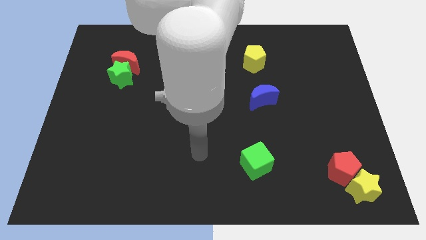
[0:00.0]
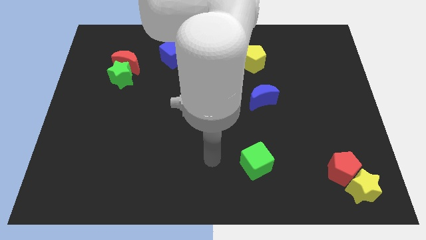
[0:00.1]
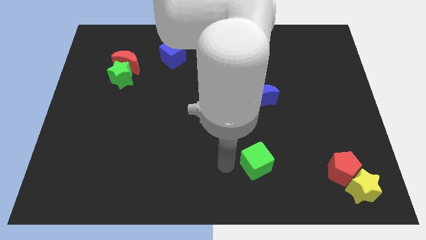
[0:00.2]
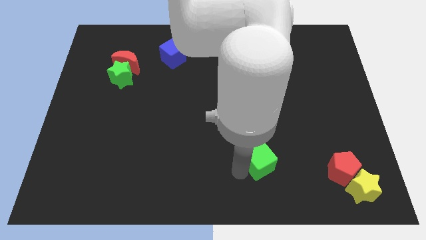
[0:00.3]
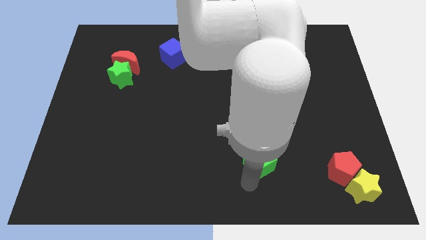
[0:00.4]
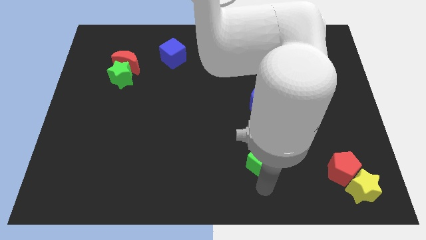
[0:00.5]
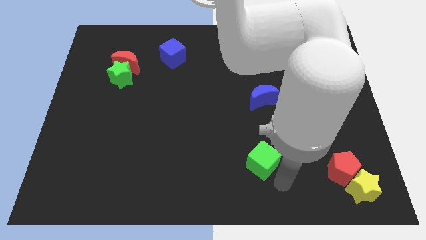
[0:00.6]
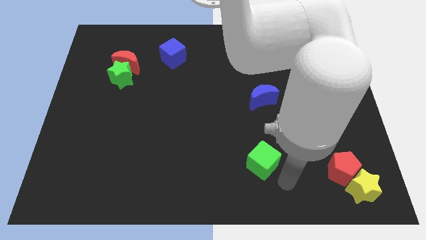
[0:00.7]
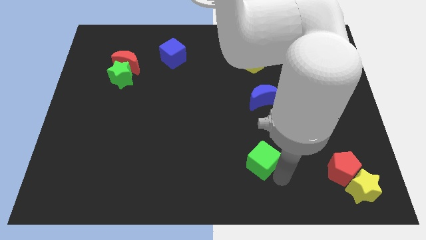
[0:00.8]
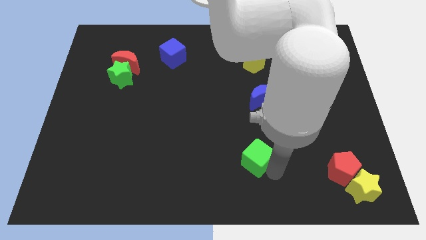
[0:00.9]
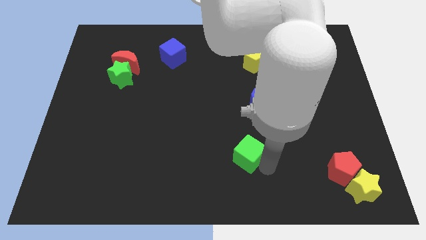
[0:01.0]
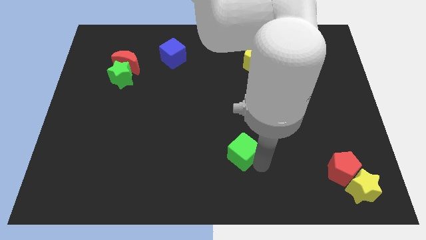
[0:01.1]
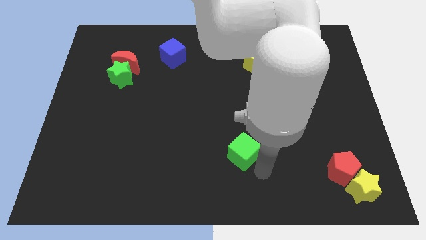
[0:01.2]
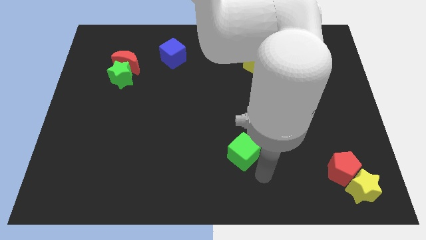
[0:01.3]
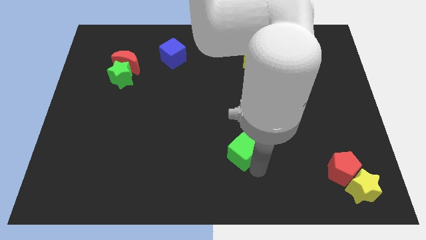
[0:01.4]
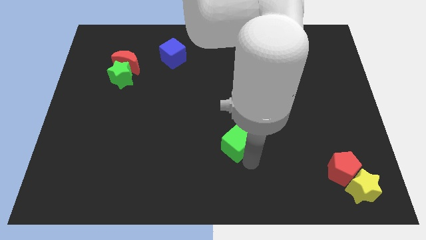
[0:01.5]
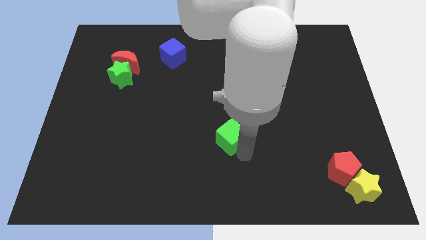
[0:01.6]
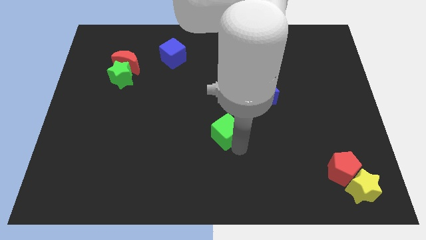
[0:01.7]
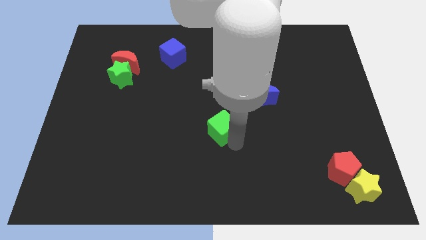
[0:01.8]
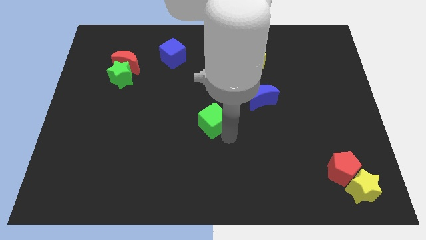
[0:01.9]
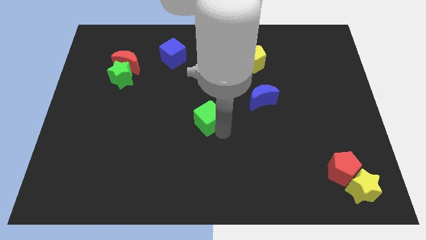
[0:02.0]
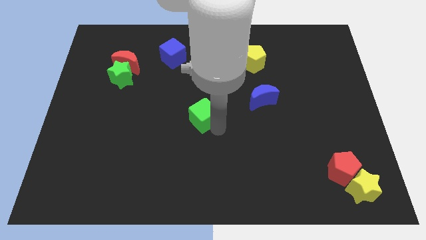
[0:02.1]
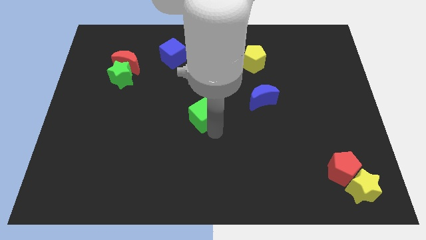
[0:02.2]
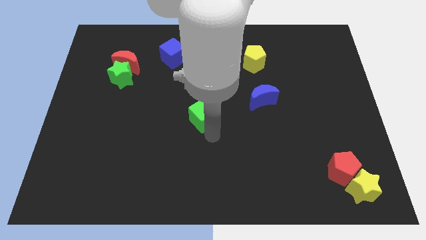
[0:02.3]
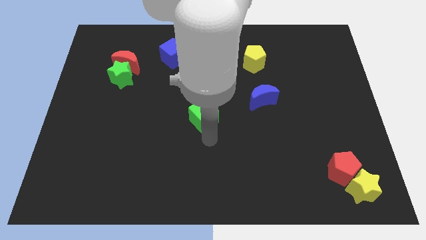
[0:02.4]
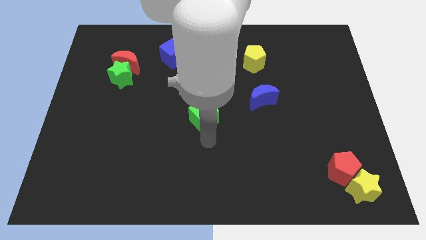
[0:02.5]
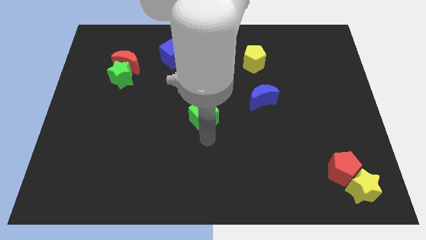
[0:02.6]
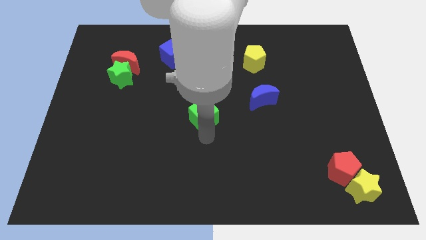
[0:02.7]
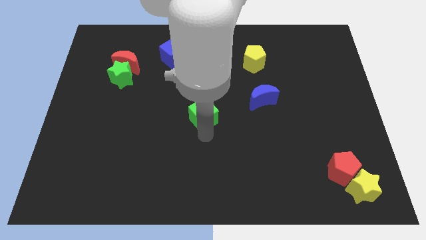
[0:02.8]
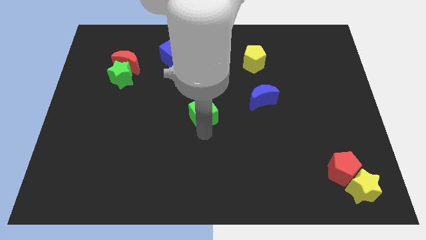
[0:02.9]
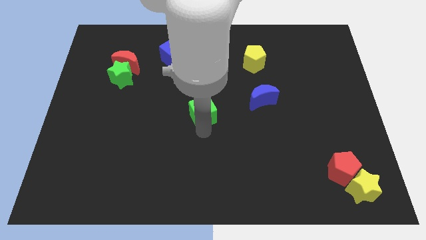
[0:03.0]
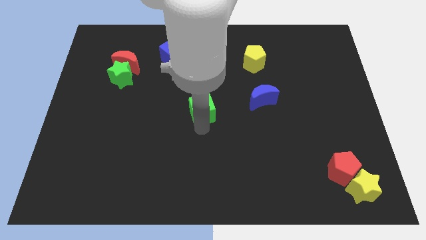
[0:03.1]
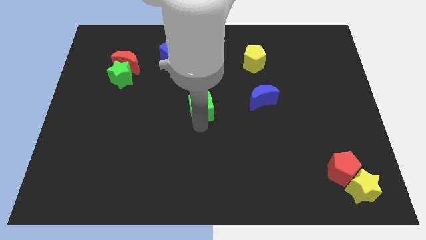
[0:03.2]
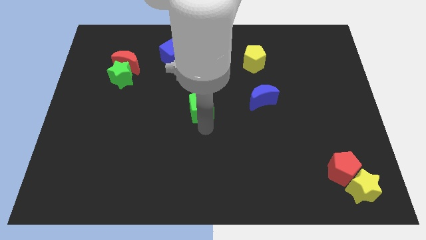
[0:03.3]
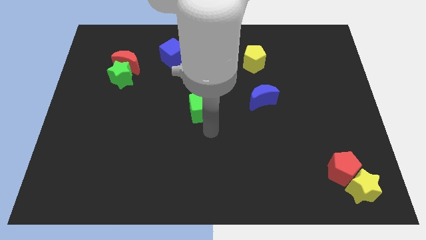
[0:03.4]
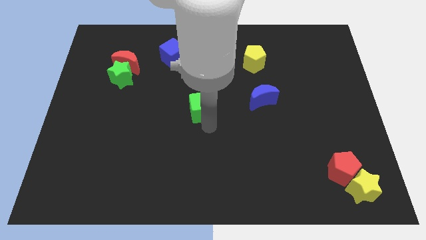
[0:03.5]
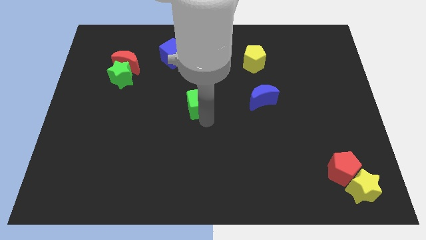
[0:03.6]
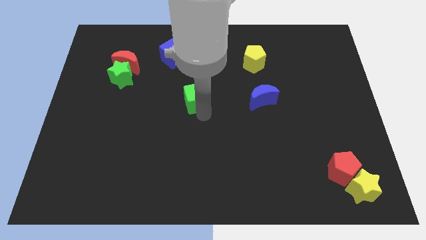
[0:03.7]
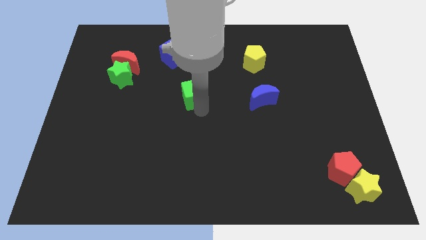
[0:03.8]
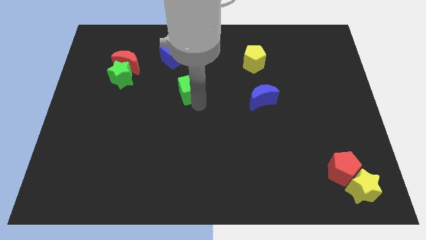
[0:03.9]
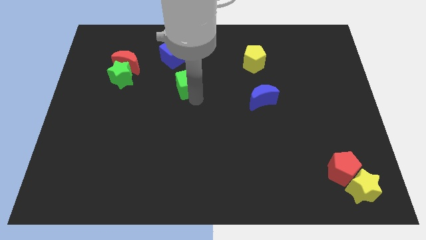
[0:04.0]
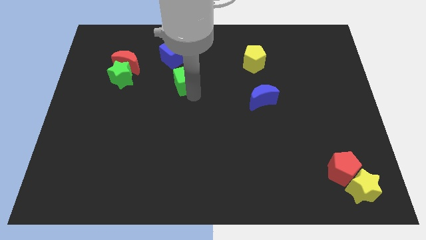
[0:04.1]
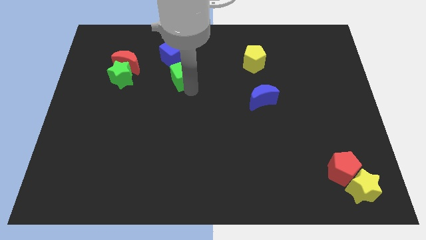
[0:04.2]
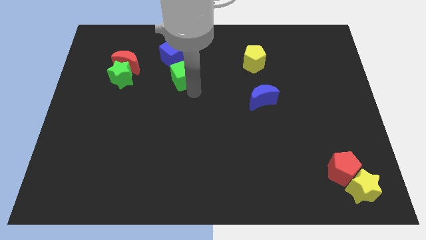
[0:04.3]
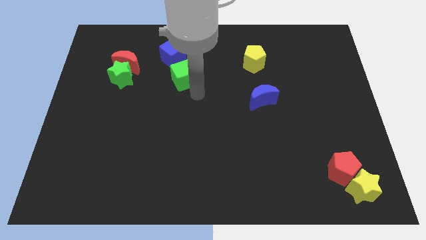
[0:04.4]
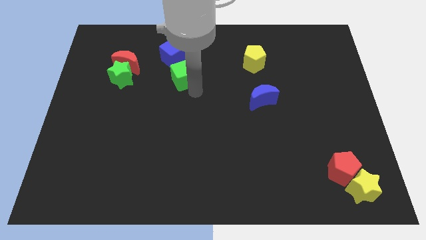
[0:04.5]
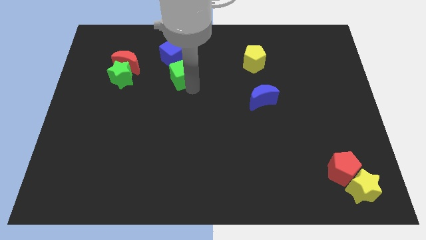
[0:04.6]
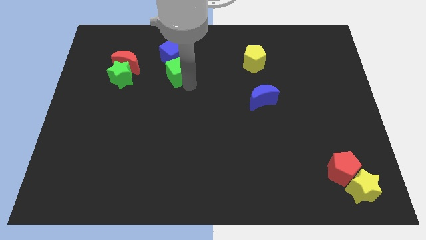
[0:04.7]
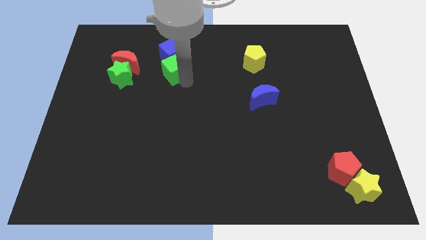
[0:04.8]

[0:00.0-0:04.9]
put the green cube close to the blue cube

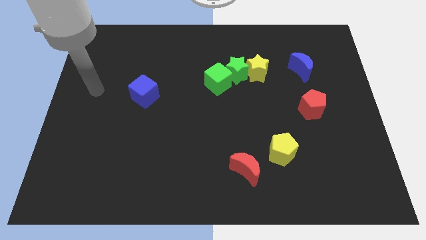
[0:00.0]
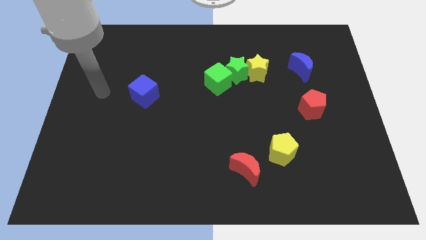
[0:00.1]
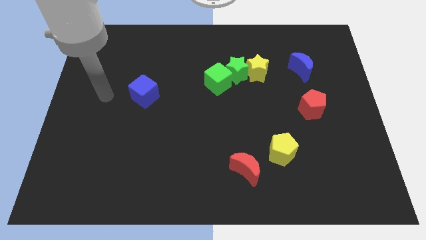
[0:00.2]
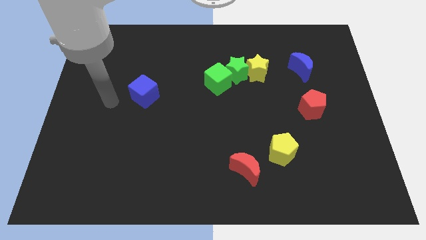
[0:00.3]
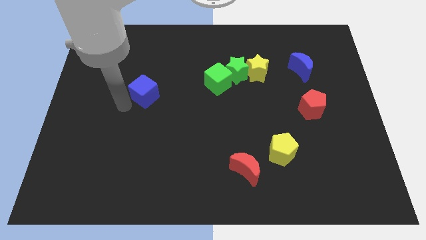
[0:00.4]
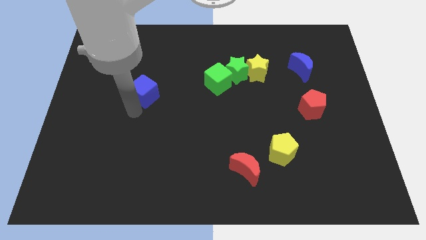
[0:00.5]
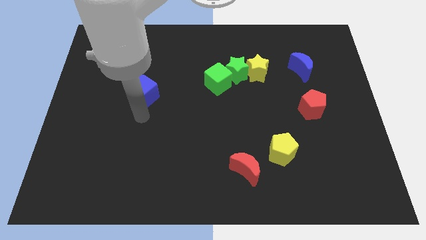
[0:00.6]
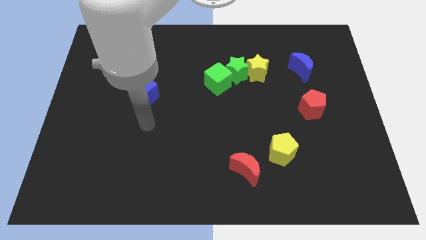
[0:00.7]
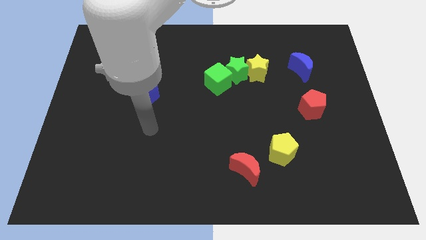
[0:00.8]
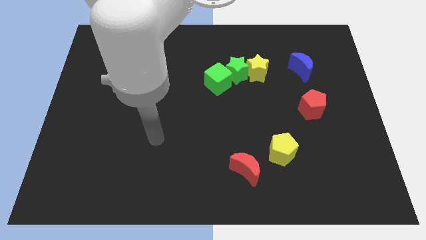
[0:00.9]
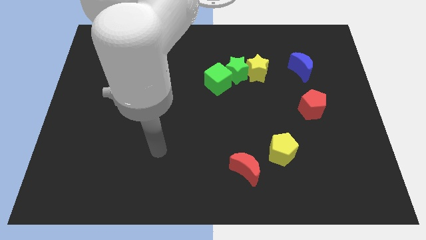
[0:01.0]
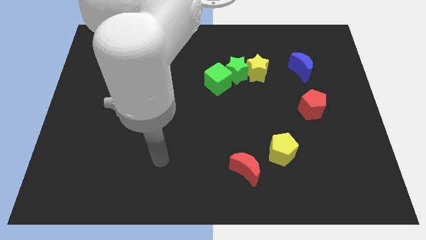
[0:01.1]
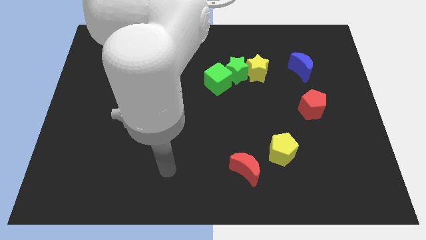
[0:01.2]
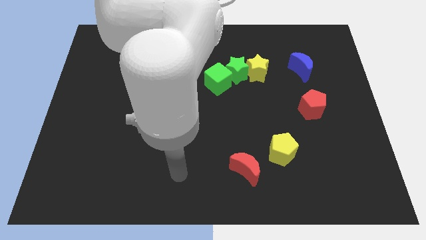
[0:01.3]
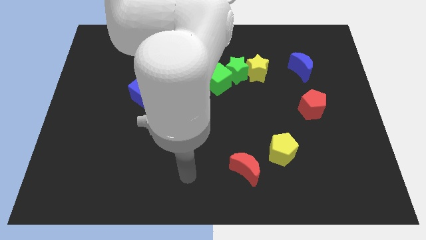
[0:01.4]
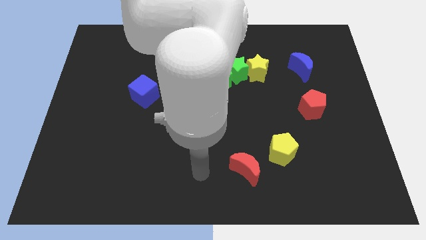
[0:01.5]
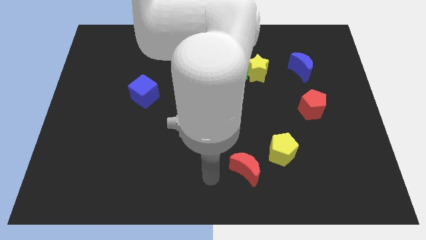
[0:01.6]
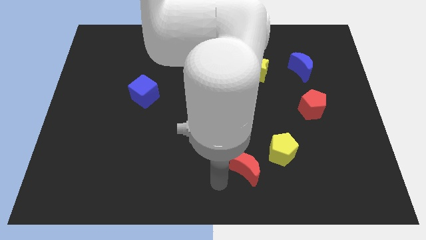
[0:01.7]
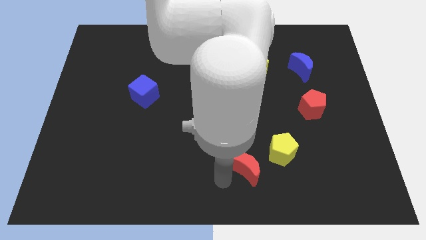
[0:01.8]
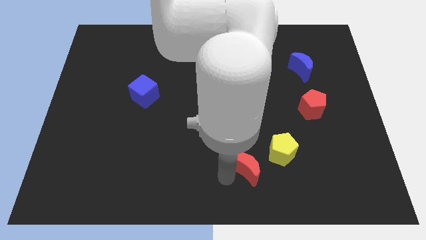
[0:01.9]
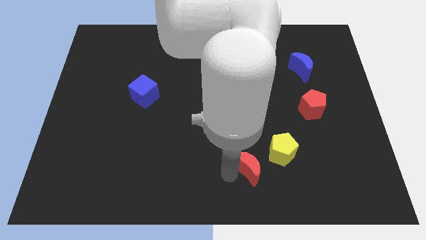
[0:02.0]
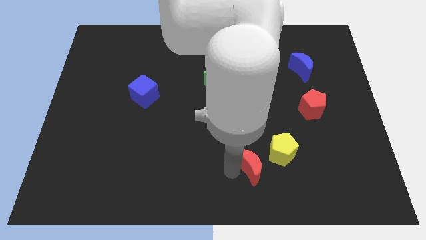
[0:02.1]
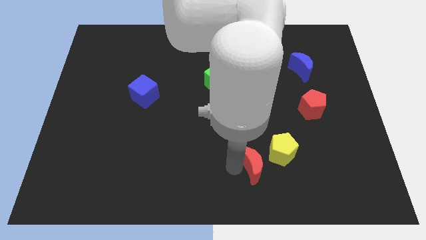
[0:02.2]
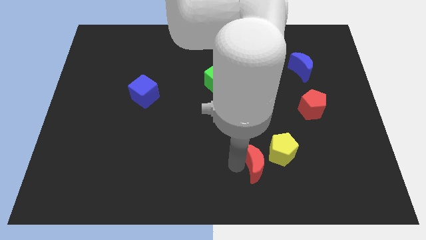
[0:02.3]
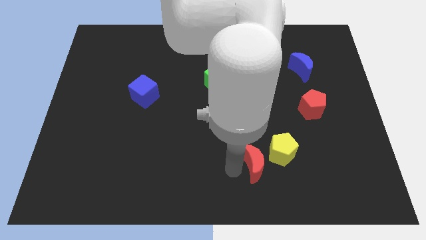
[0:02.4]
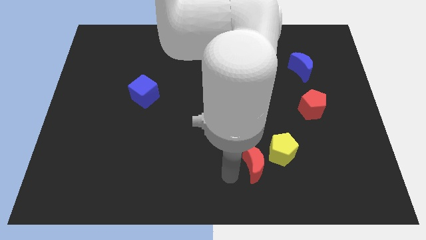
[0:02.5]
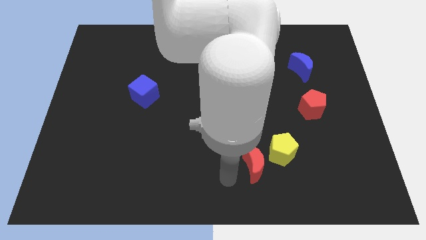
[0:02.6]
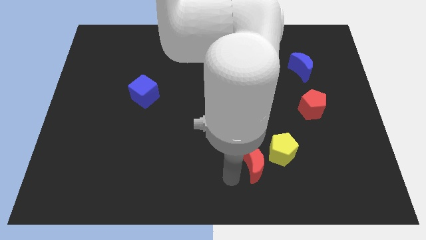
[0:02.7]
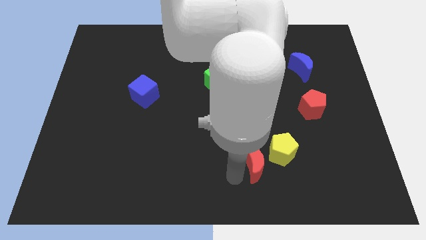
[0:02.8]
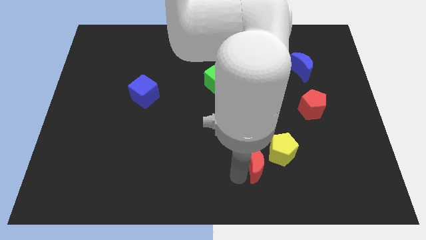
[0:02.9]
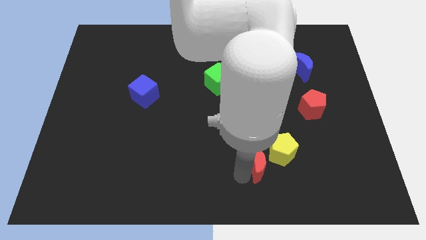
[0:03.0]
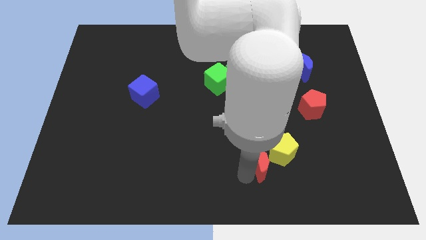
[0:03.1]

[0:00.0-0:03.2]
move the red moon towards the yellow pentagon

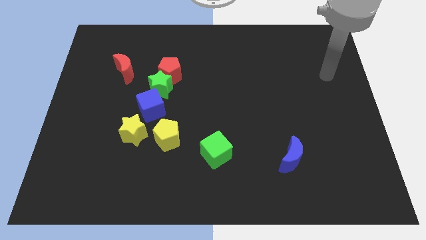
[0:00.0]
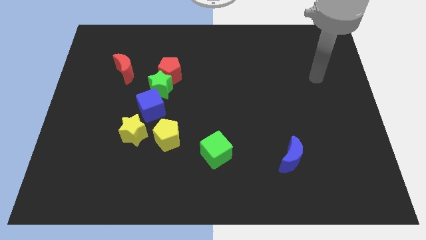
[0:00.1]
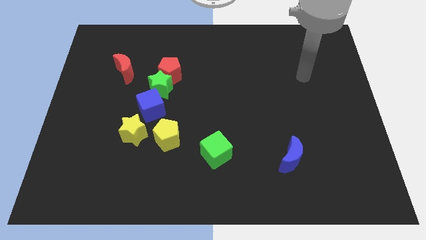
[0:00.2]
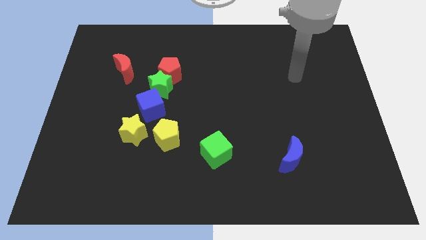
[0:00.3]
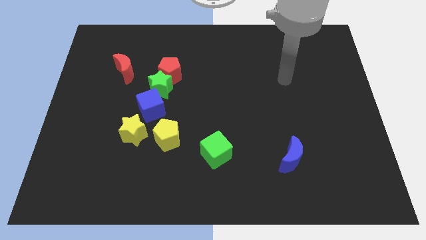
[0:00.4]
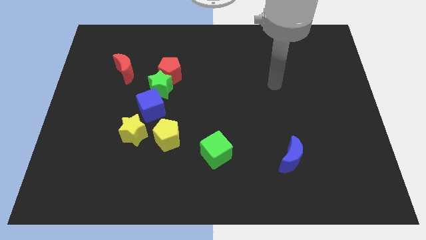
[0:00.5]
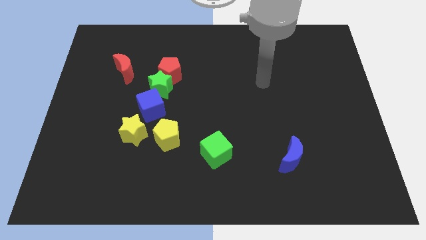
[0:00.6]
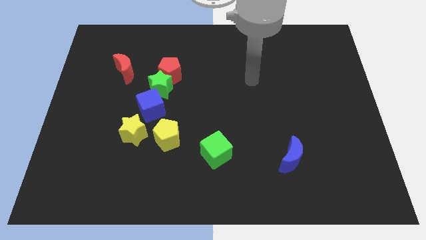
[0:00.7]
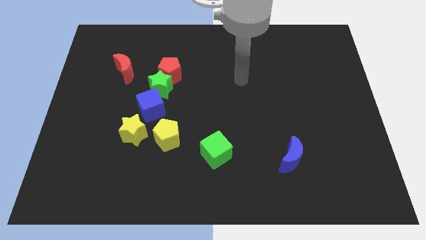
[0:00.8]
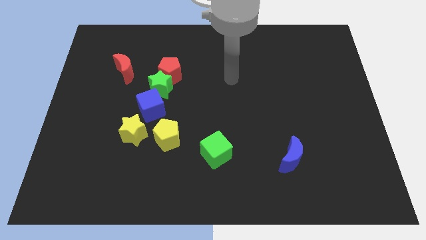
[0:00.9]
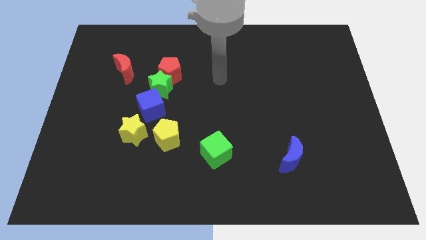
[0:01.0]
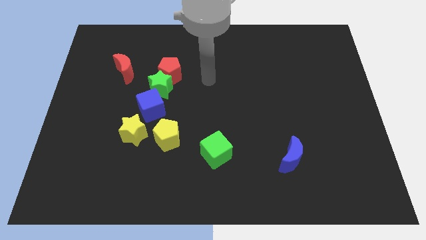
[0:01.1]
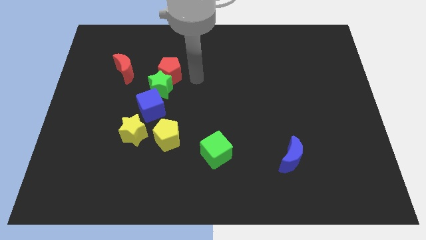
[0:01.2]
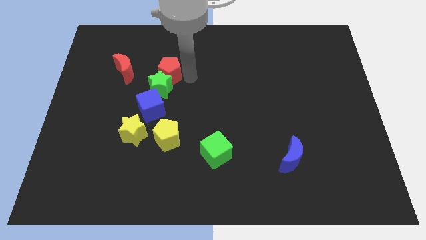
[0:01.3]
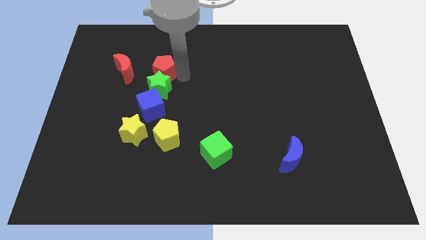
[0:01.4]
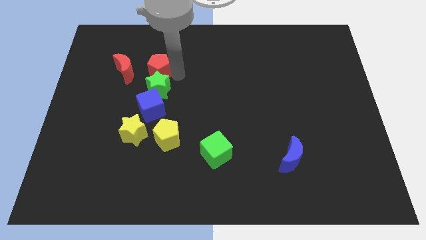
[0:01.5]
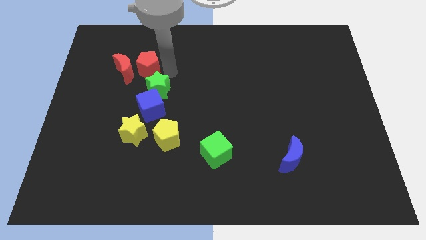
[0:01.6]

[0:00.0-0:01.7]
put the red pentagon towards the red moon
